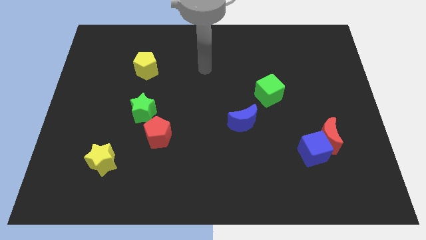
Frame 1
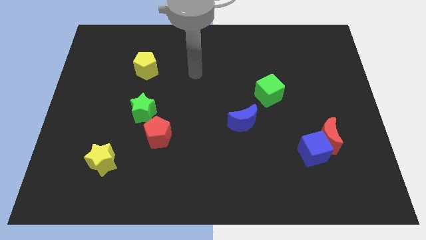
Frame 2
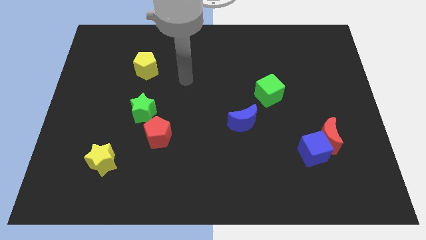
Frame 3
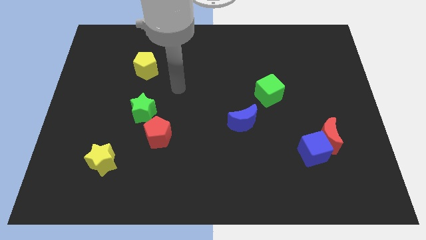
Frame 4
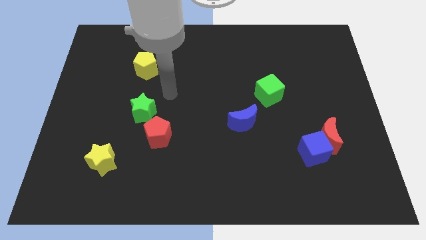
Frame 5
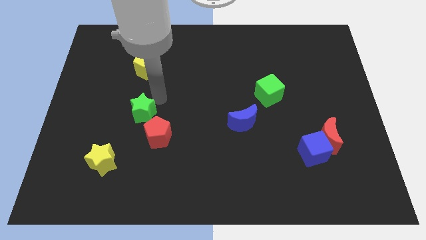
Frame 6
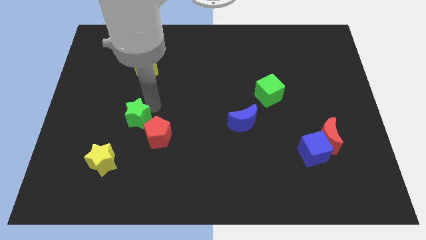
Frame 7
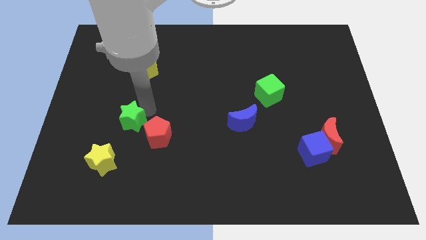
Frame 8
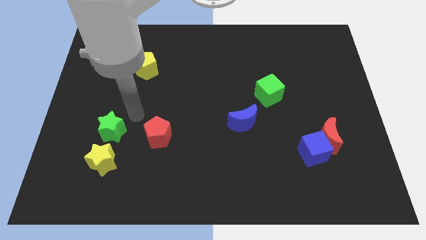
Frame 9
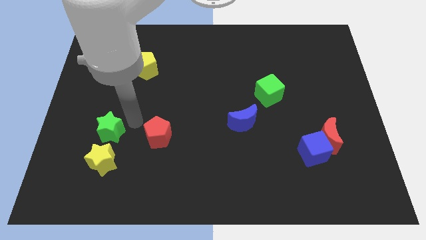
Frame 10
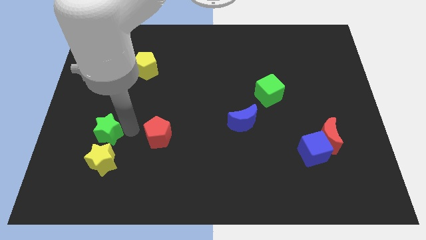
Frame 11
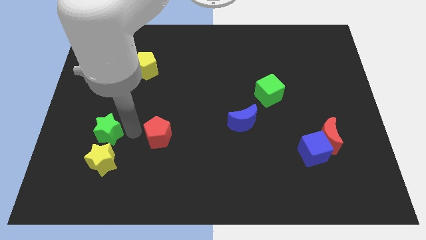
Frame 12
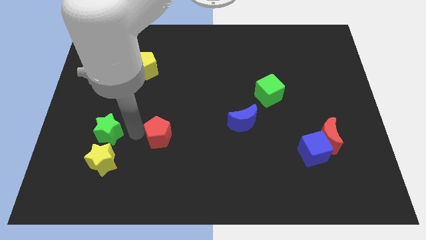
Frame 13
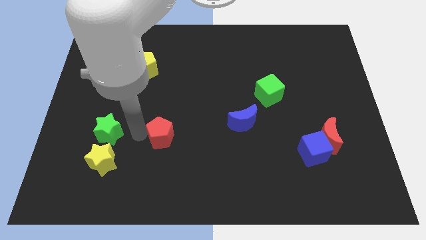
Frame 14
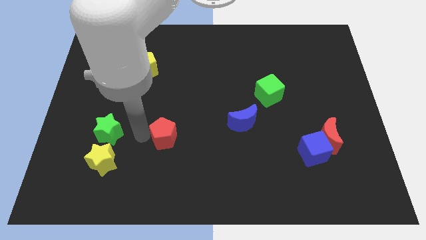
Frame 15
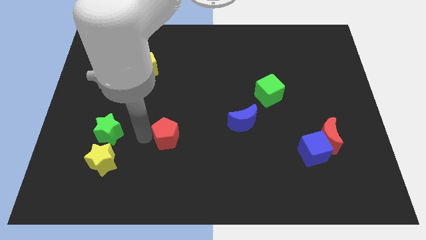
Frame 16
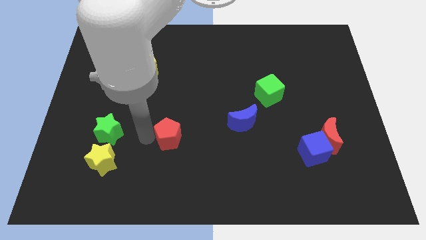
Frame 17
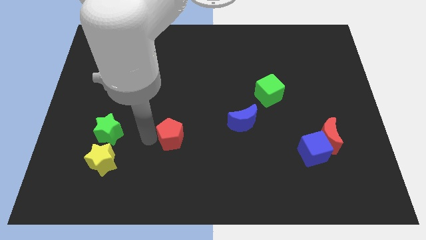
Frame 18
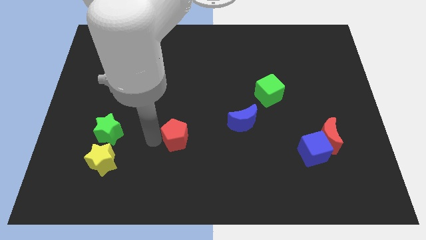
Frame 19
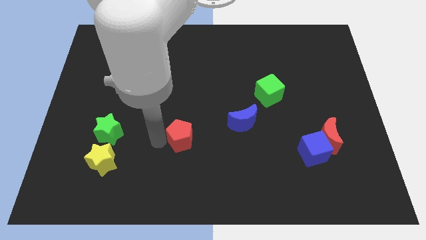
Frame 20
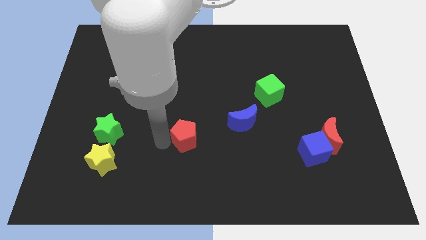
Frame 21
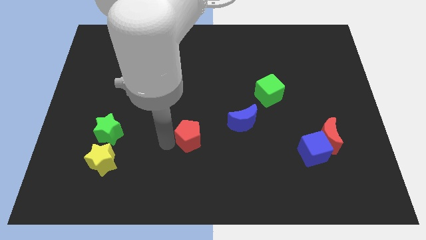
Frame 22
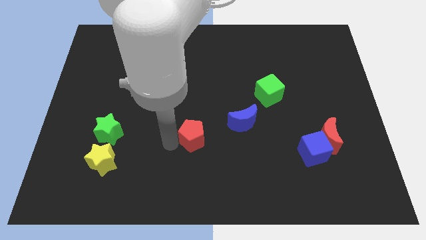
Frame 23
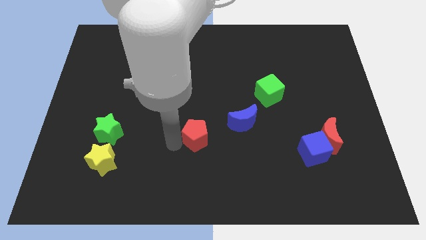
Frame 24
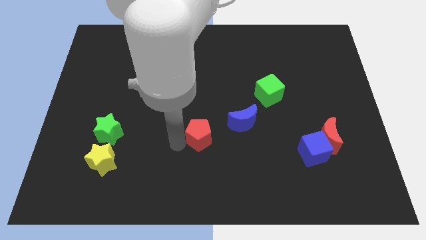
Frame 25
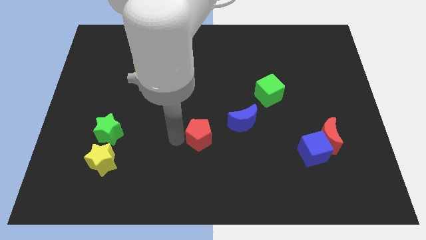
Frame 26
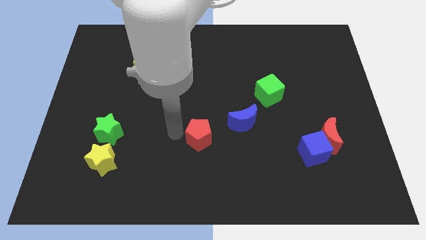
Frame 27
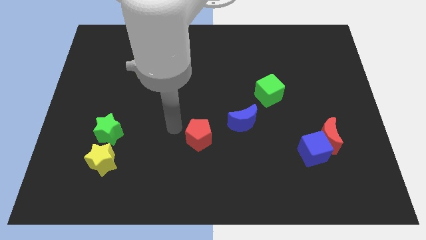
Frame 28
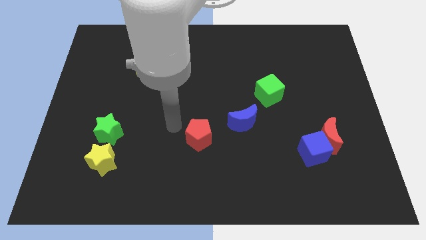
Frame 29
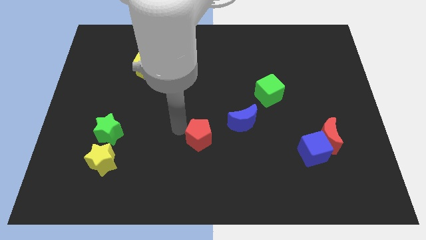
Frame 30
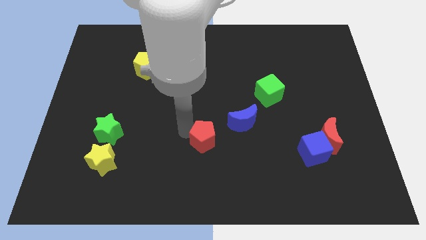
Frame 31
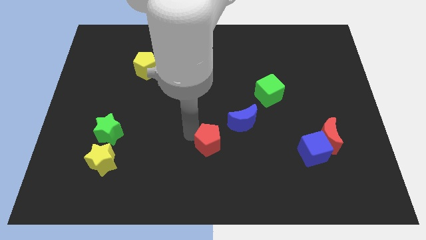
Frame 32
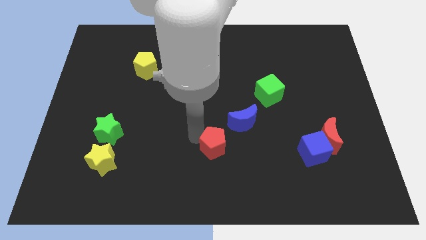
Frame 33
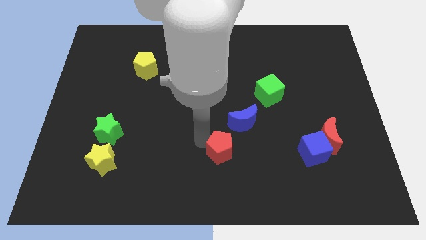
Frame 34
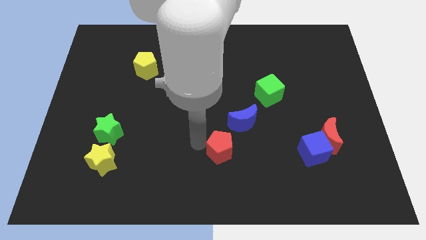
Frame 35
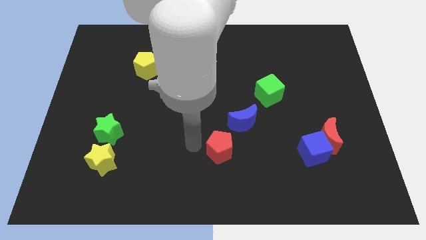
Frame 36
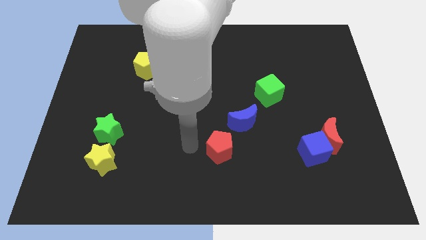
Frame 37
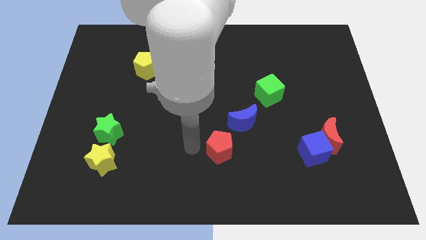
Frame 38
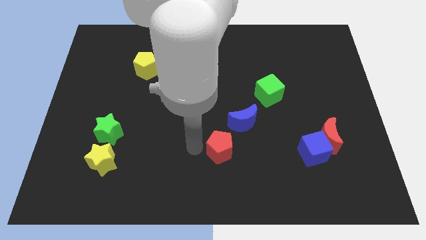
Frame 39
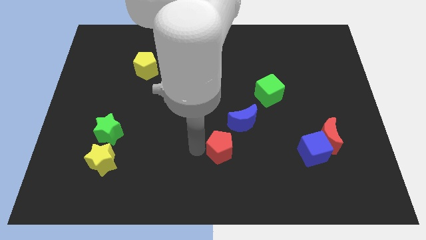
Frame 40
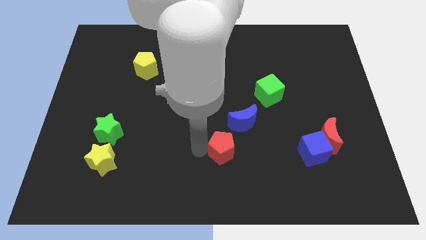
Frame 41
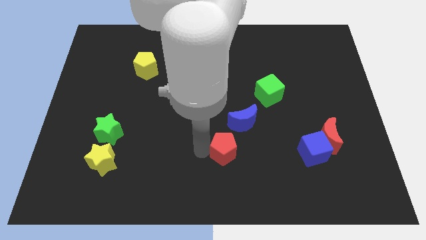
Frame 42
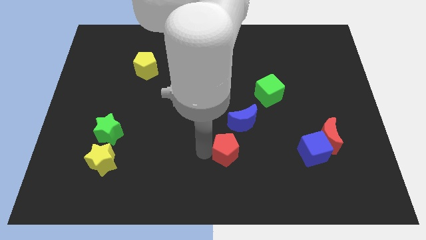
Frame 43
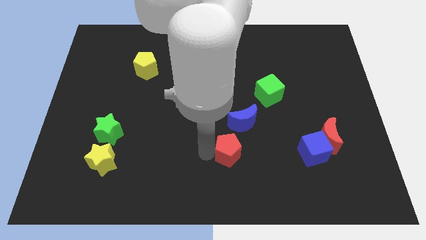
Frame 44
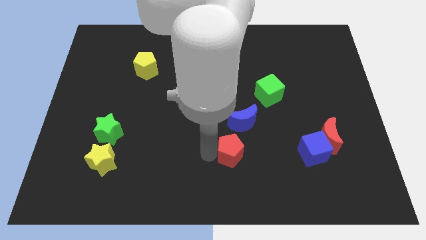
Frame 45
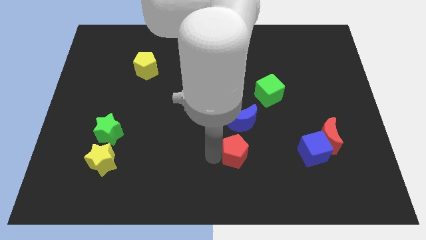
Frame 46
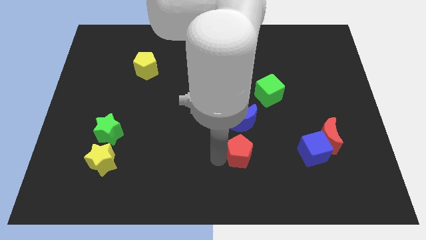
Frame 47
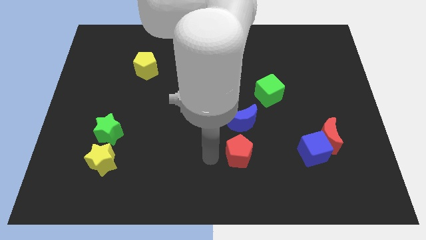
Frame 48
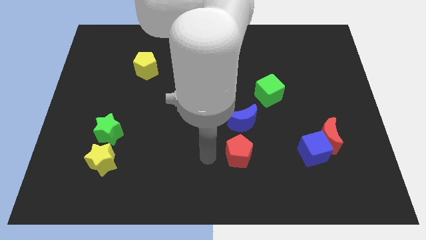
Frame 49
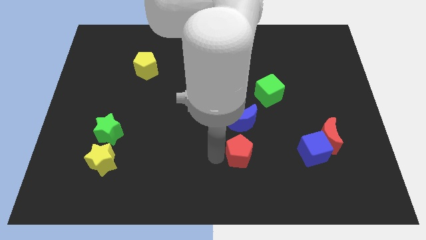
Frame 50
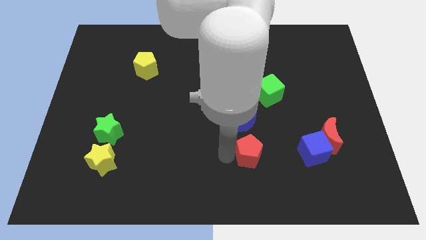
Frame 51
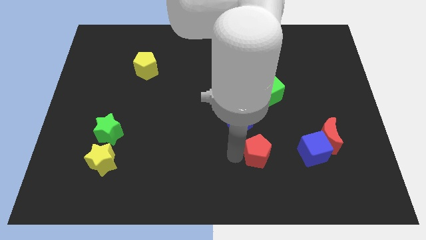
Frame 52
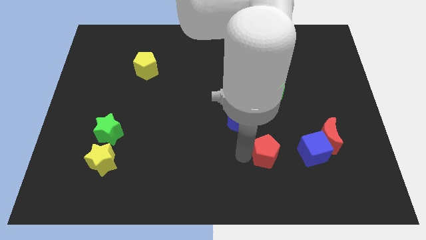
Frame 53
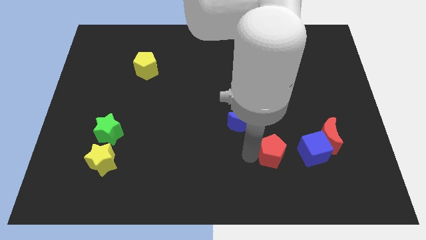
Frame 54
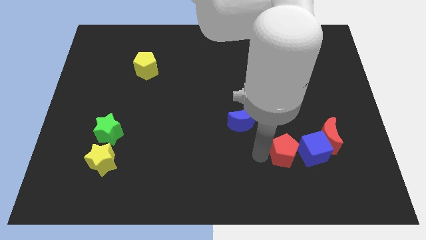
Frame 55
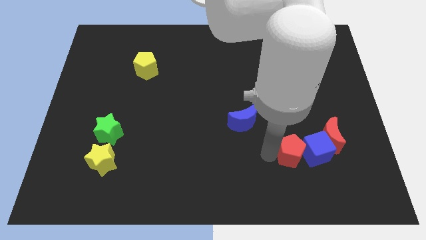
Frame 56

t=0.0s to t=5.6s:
push the red pentagon next to the blue cube

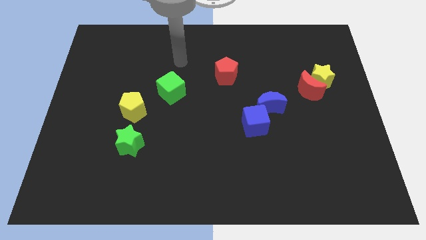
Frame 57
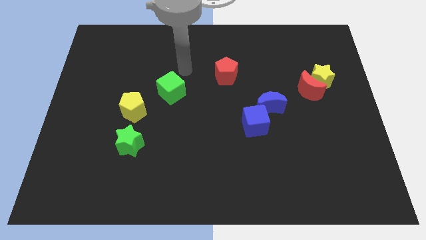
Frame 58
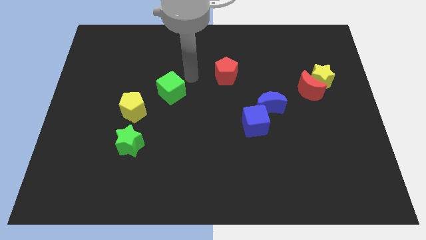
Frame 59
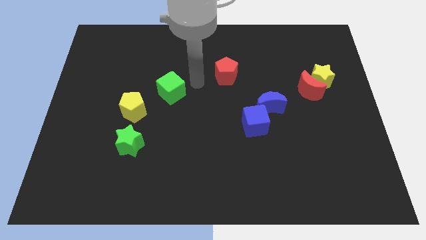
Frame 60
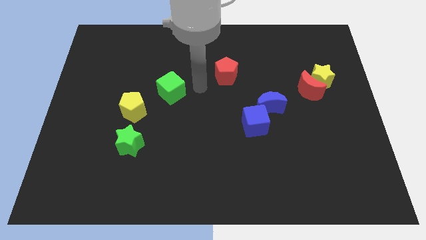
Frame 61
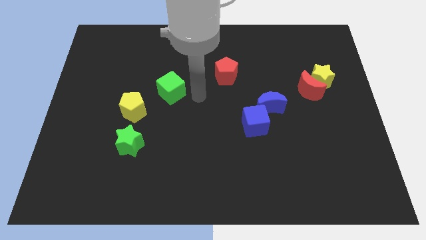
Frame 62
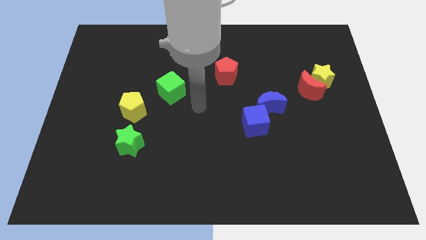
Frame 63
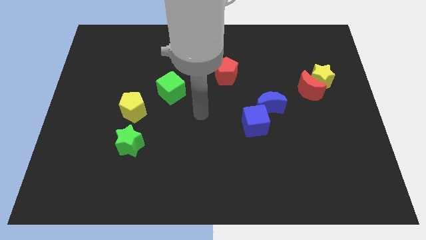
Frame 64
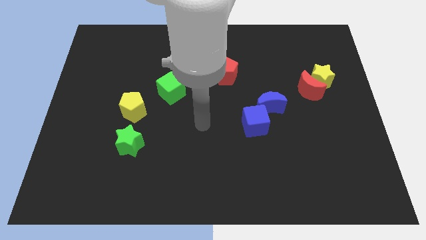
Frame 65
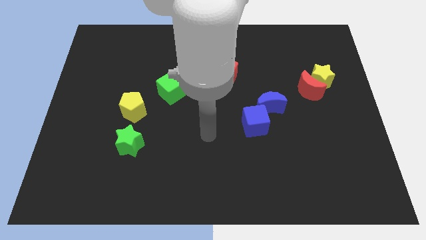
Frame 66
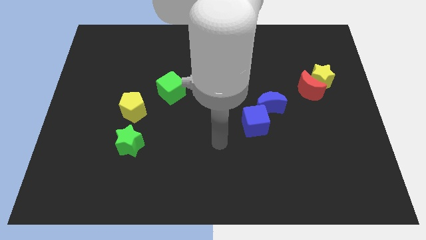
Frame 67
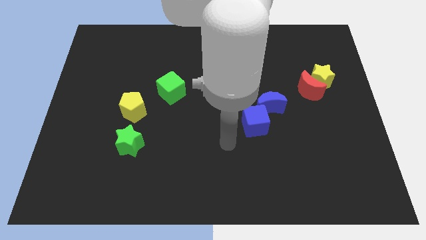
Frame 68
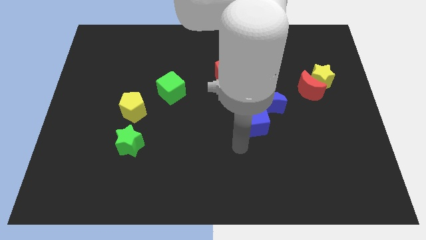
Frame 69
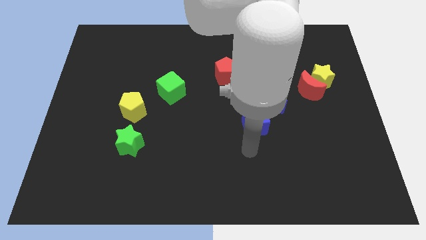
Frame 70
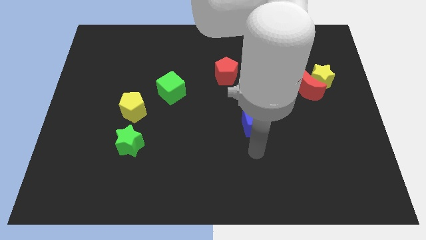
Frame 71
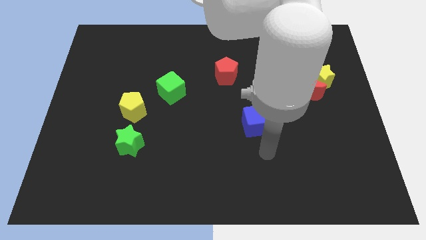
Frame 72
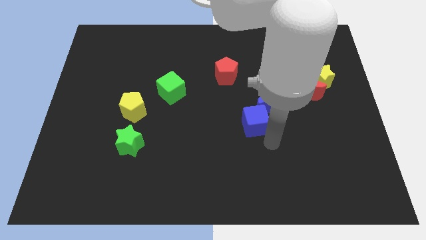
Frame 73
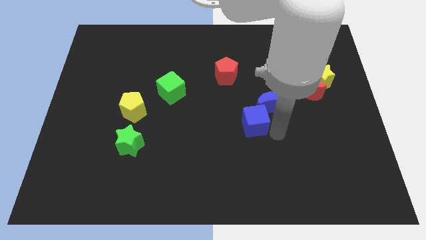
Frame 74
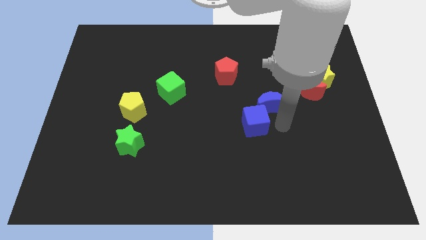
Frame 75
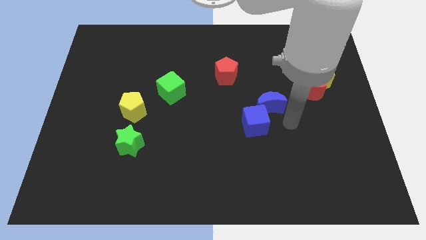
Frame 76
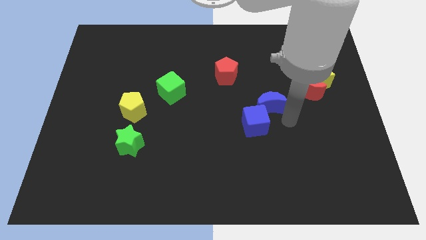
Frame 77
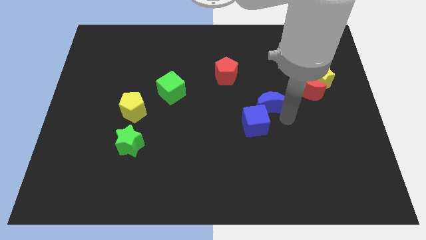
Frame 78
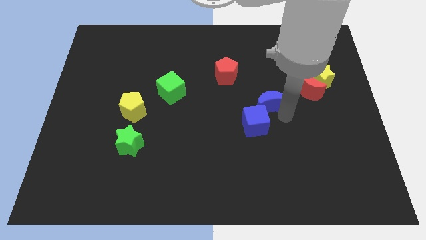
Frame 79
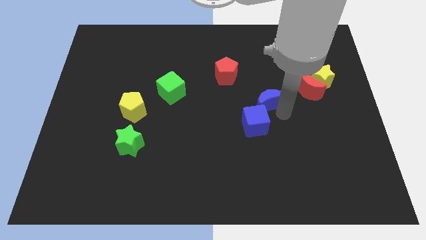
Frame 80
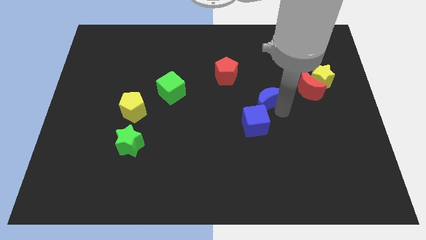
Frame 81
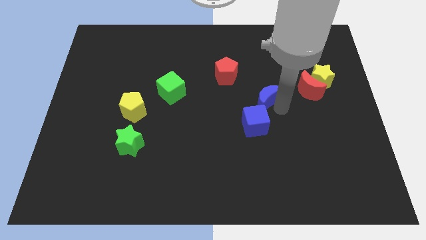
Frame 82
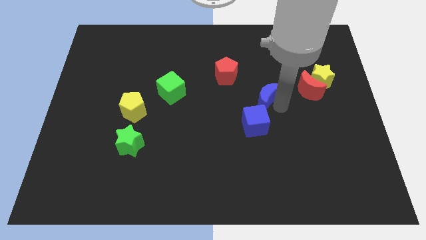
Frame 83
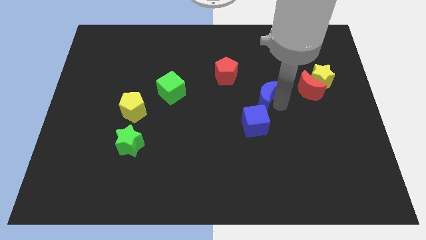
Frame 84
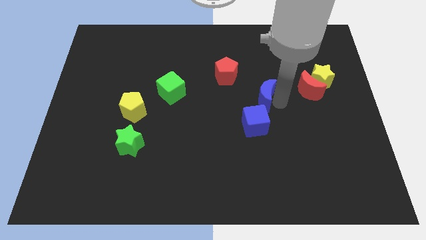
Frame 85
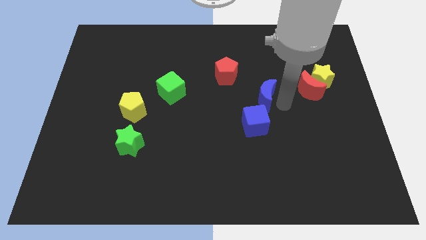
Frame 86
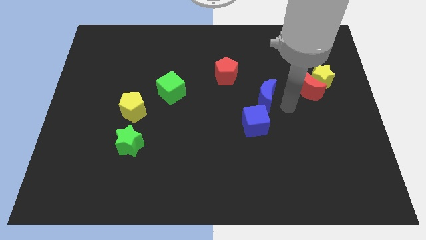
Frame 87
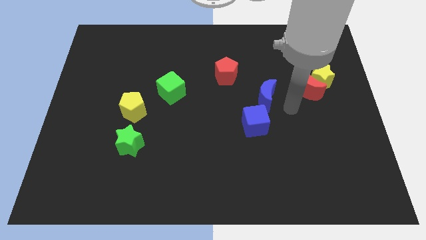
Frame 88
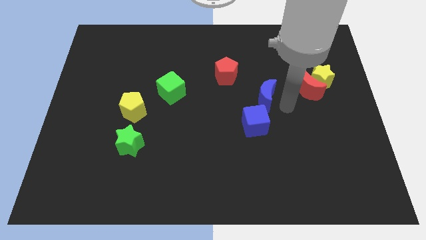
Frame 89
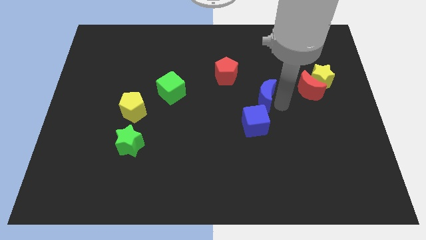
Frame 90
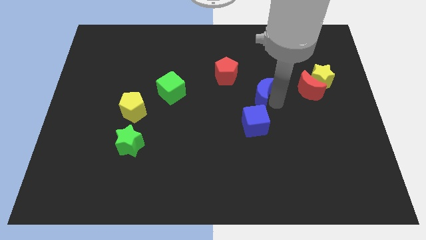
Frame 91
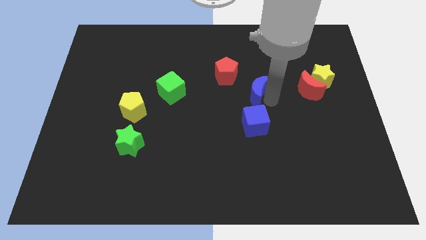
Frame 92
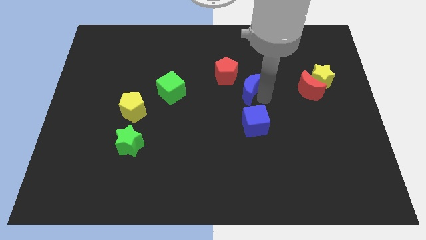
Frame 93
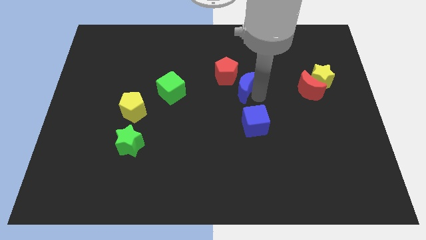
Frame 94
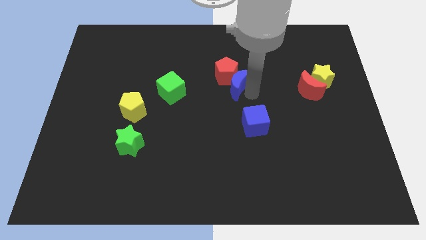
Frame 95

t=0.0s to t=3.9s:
put the blue moon towards the red pentagon
